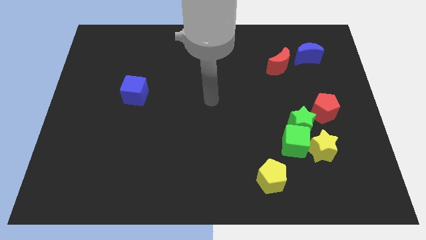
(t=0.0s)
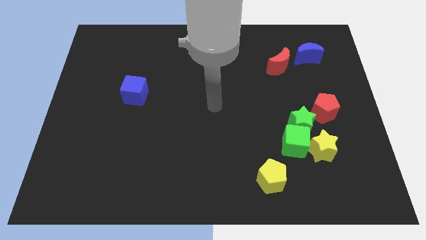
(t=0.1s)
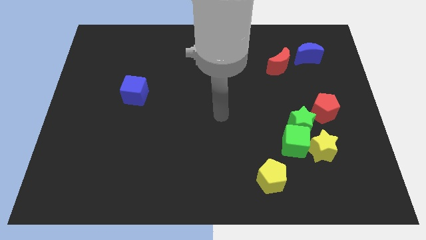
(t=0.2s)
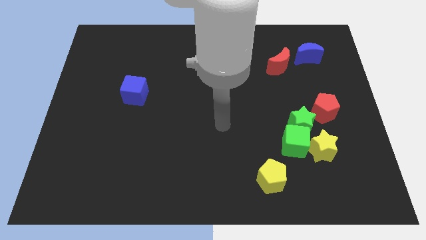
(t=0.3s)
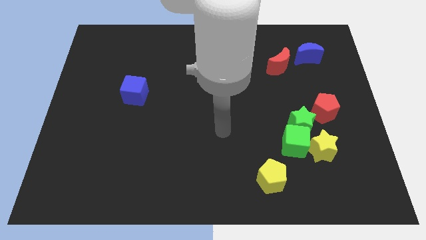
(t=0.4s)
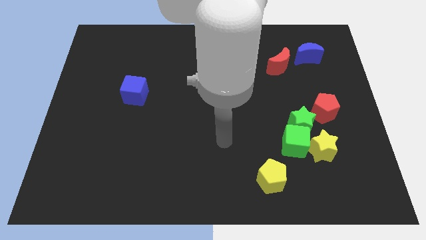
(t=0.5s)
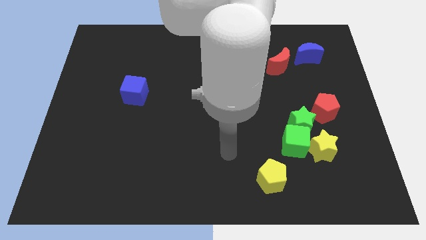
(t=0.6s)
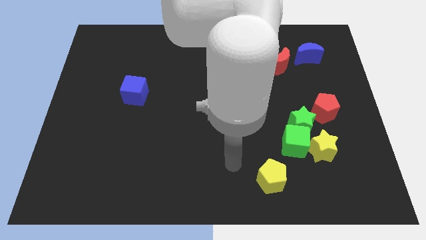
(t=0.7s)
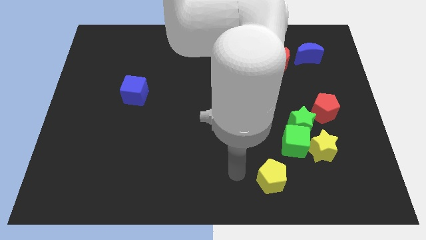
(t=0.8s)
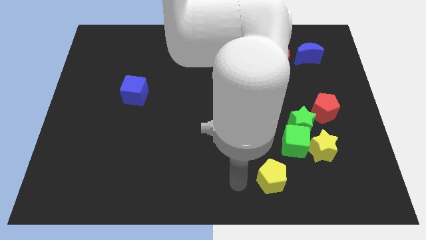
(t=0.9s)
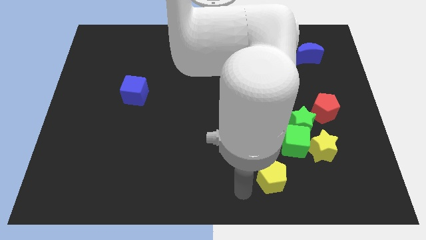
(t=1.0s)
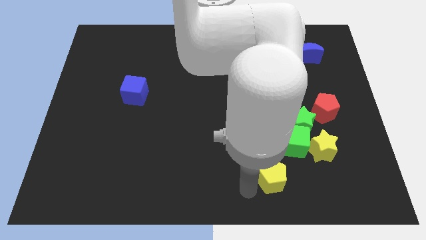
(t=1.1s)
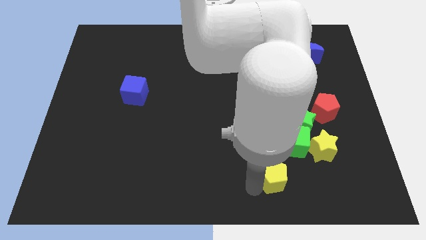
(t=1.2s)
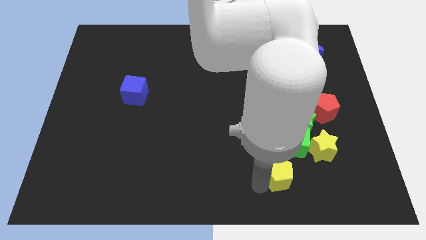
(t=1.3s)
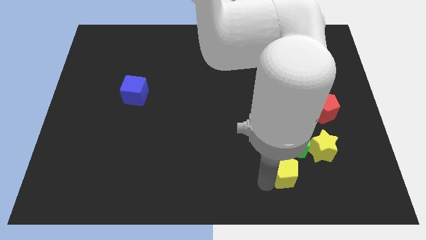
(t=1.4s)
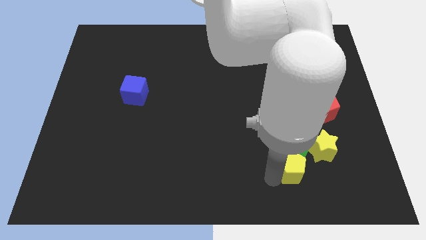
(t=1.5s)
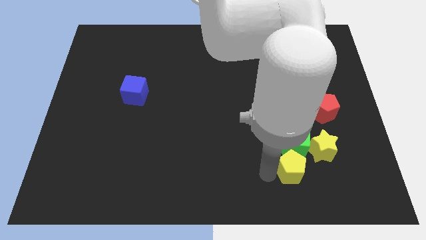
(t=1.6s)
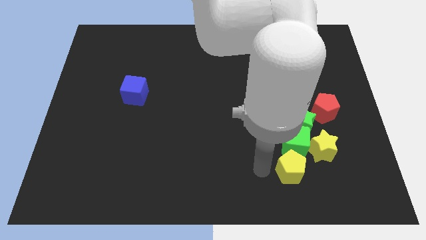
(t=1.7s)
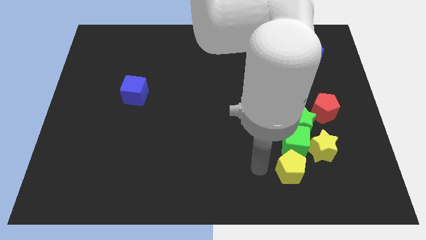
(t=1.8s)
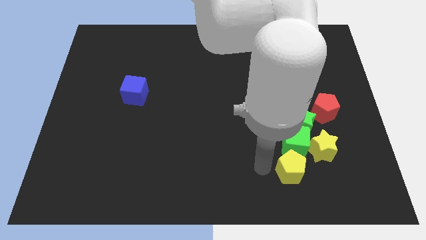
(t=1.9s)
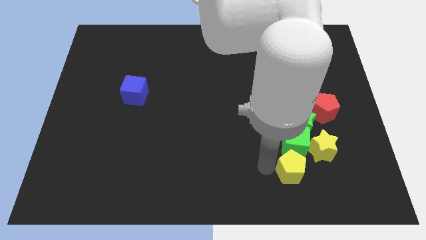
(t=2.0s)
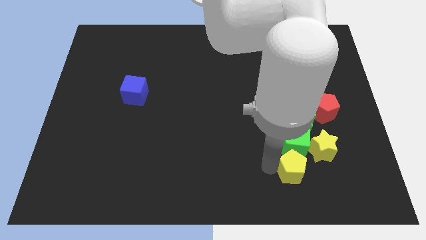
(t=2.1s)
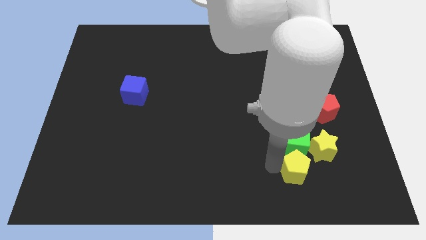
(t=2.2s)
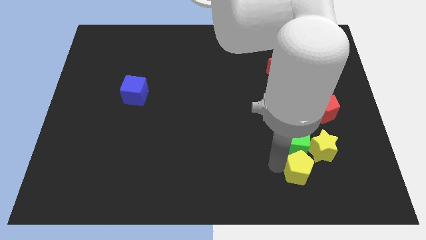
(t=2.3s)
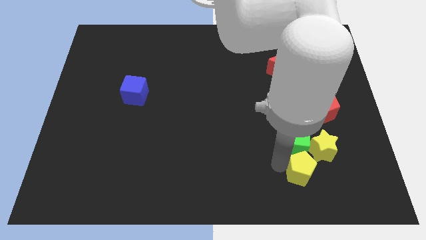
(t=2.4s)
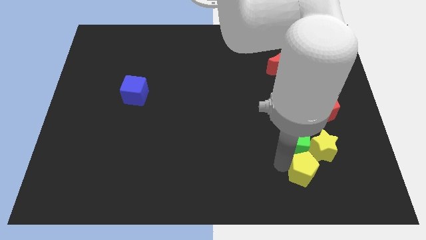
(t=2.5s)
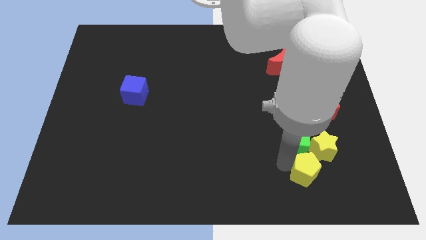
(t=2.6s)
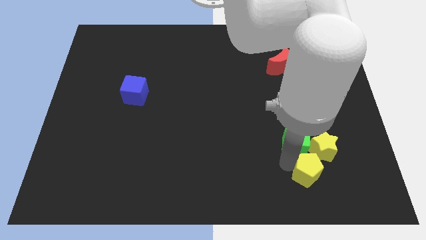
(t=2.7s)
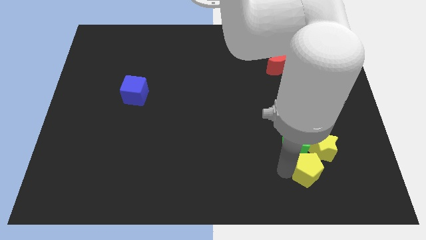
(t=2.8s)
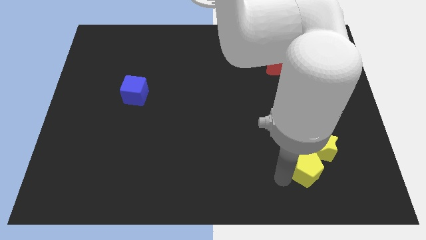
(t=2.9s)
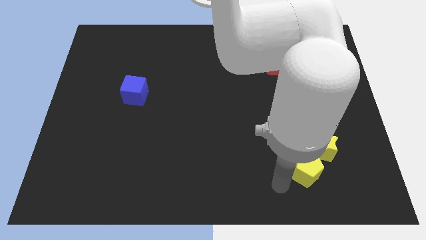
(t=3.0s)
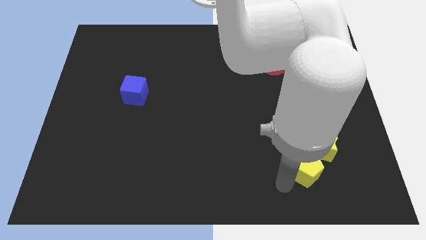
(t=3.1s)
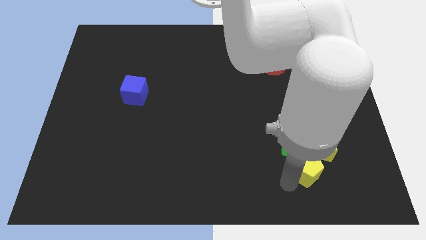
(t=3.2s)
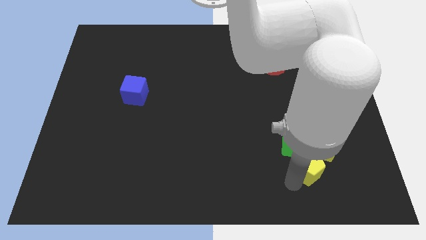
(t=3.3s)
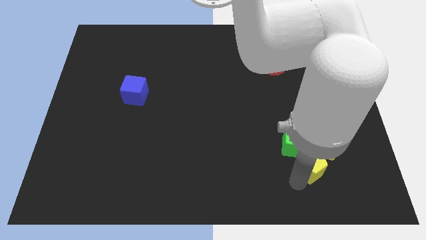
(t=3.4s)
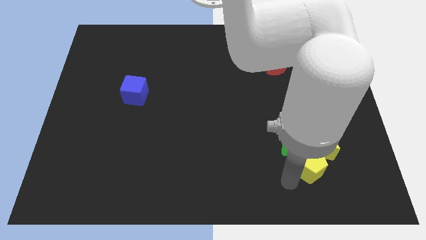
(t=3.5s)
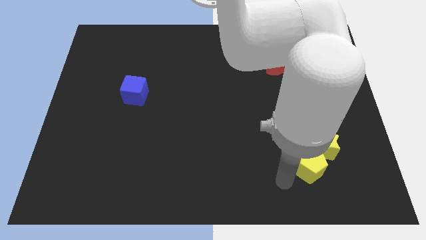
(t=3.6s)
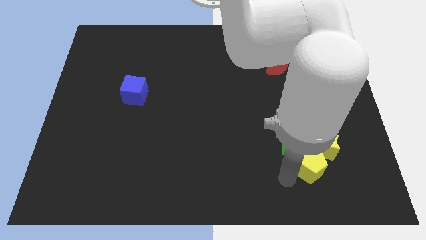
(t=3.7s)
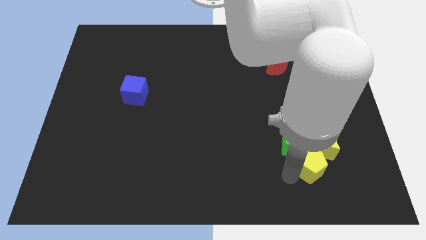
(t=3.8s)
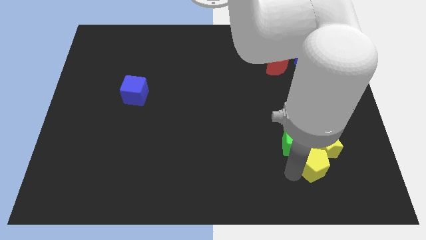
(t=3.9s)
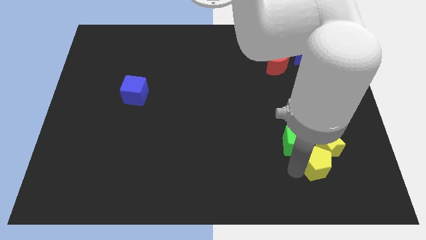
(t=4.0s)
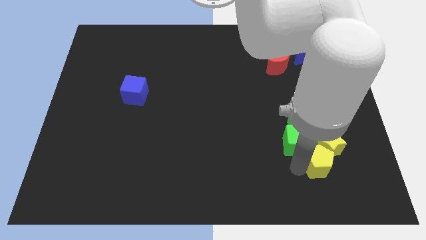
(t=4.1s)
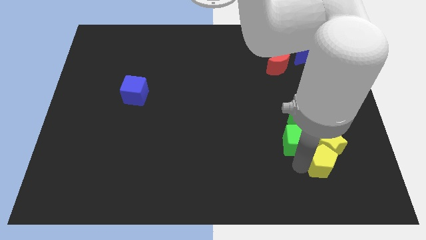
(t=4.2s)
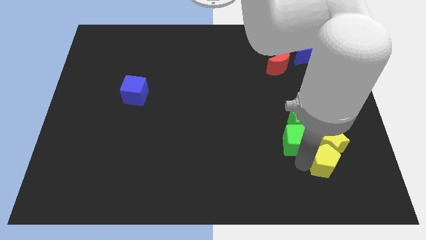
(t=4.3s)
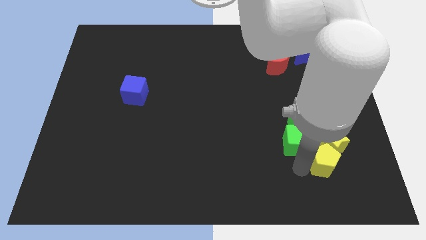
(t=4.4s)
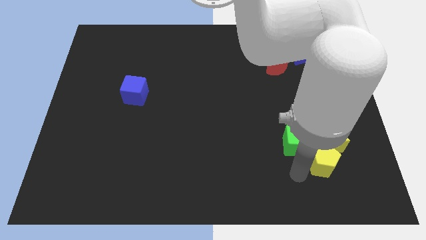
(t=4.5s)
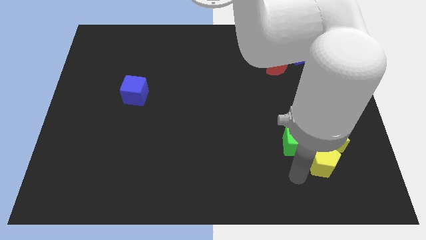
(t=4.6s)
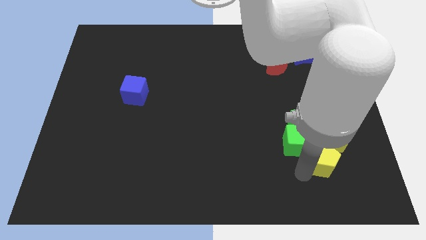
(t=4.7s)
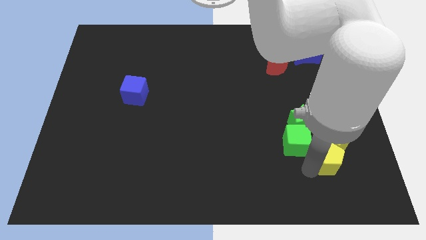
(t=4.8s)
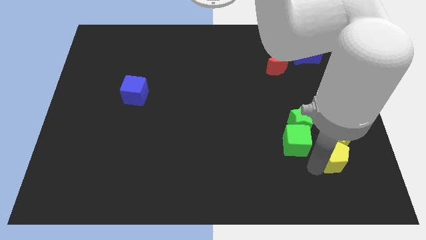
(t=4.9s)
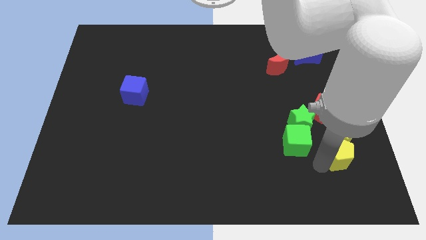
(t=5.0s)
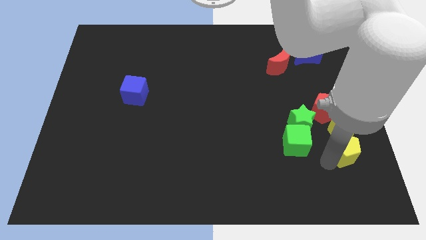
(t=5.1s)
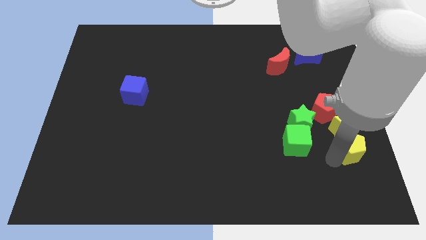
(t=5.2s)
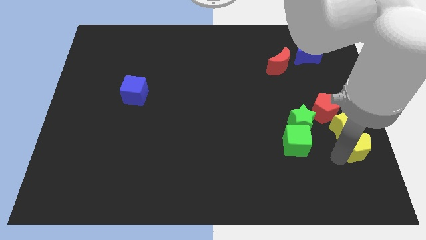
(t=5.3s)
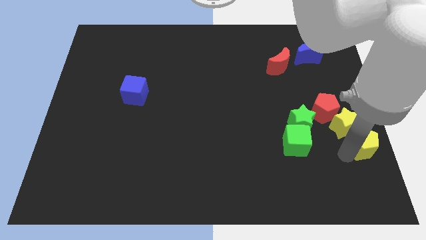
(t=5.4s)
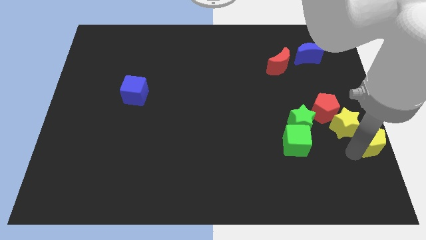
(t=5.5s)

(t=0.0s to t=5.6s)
put the yellow pentagon to the center right

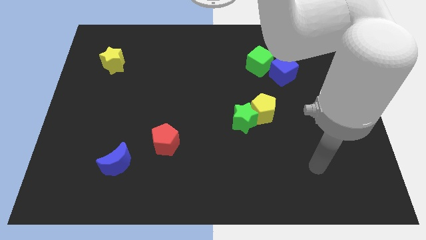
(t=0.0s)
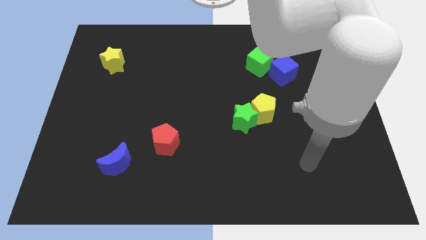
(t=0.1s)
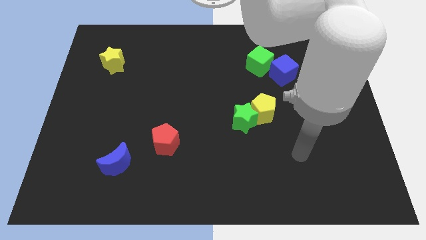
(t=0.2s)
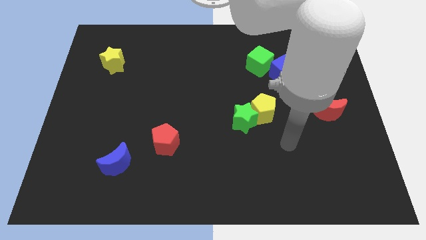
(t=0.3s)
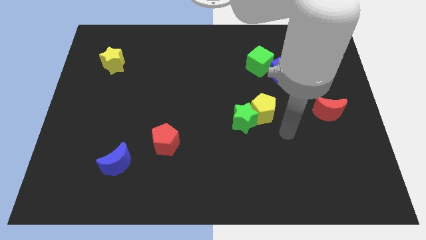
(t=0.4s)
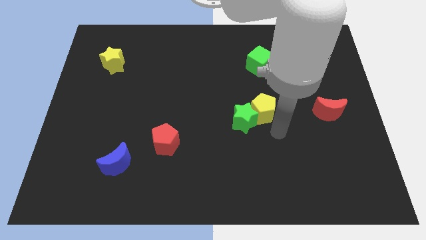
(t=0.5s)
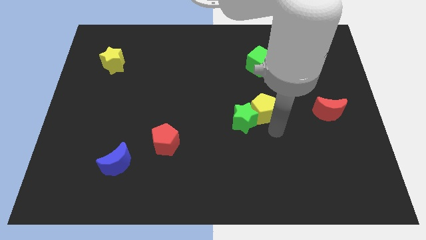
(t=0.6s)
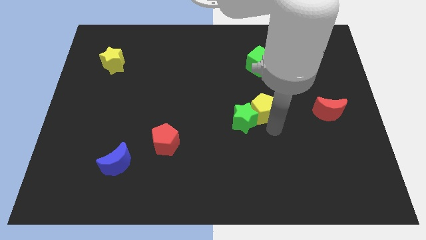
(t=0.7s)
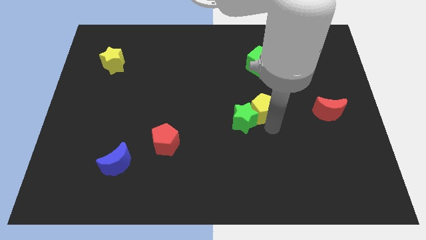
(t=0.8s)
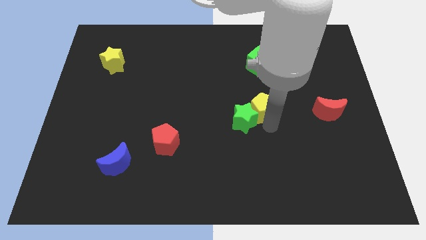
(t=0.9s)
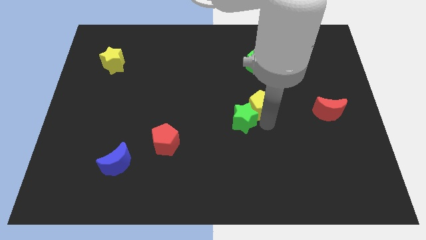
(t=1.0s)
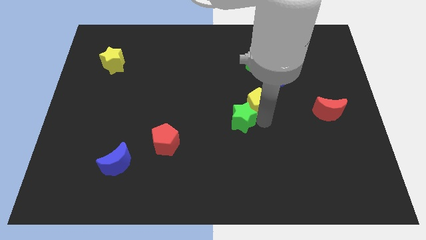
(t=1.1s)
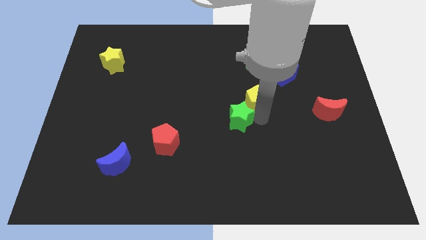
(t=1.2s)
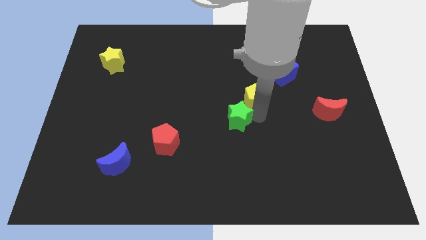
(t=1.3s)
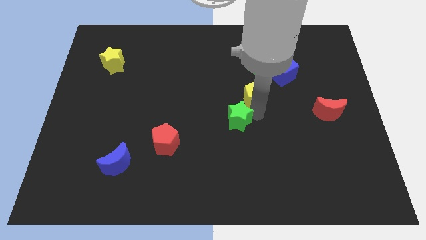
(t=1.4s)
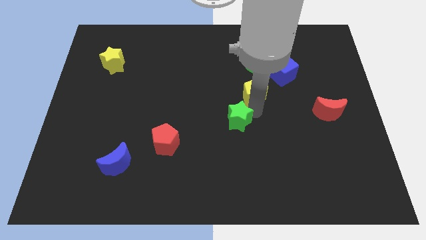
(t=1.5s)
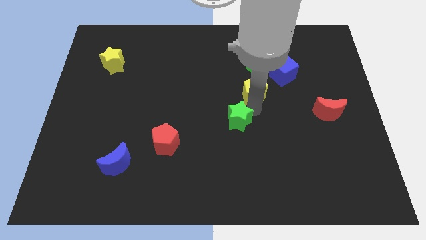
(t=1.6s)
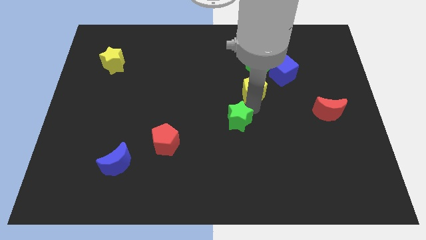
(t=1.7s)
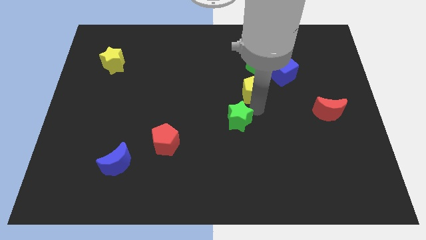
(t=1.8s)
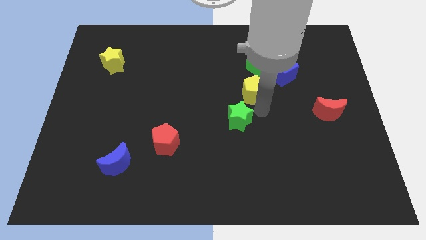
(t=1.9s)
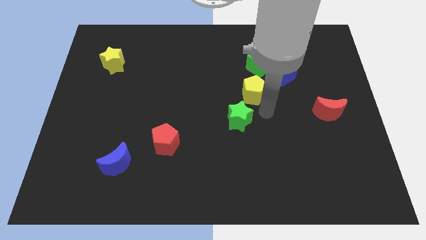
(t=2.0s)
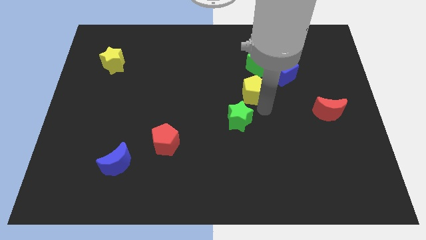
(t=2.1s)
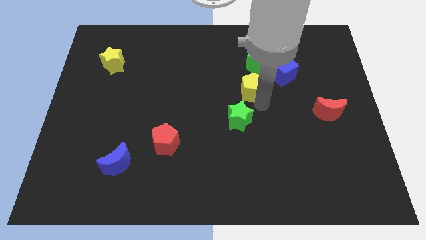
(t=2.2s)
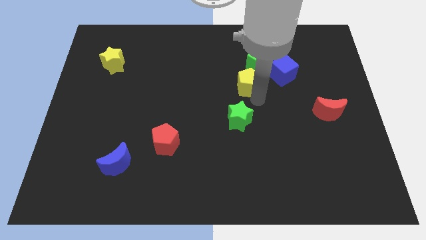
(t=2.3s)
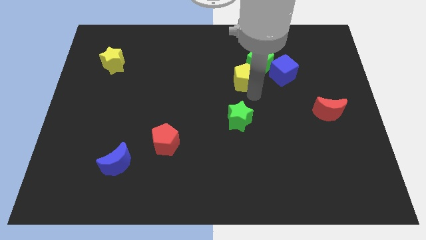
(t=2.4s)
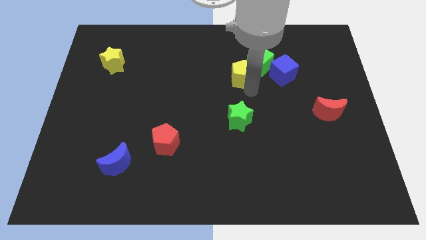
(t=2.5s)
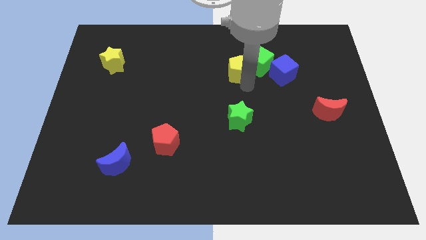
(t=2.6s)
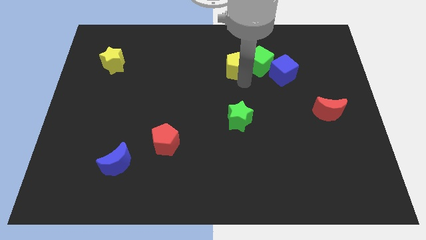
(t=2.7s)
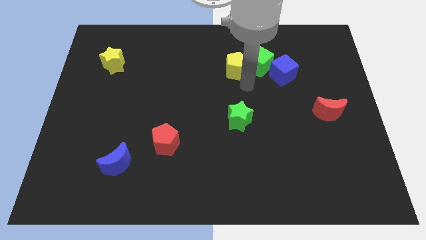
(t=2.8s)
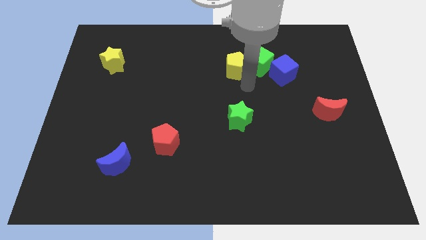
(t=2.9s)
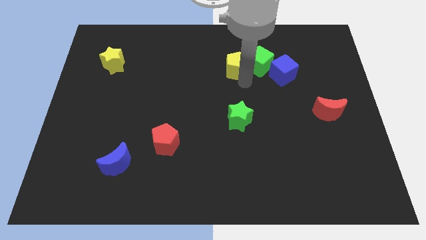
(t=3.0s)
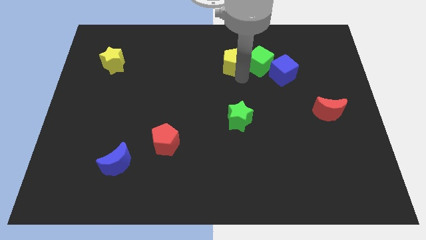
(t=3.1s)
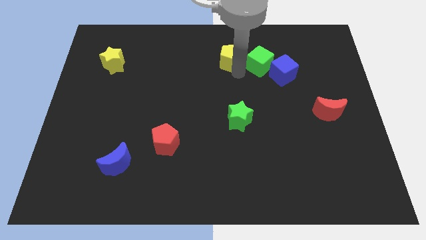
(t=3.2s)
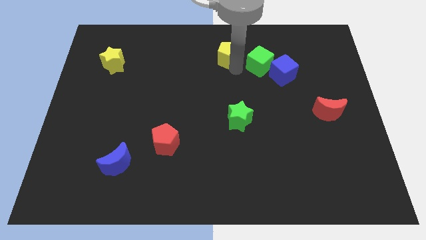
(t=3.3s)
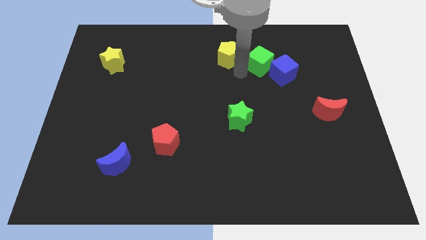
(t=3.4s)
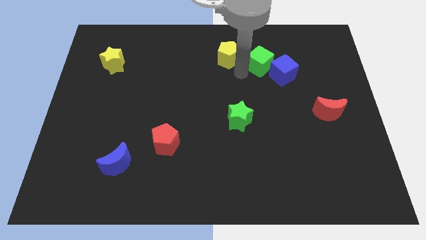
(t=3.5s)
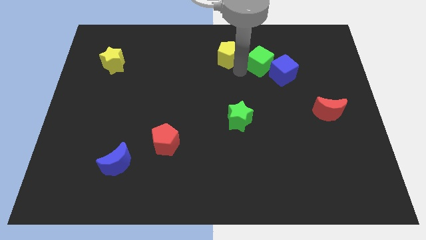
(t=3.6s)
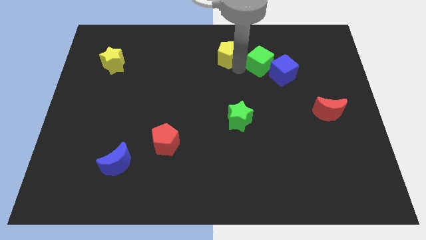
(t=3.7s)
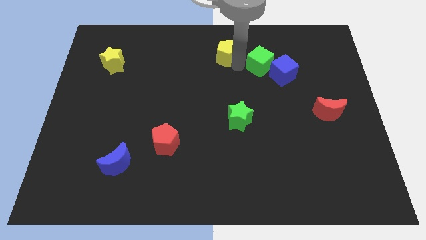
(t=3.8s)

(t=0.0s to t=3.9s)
put the yellow pentagon to the towards your base
